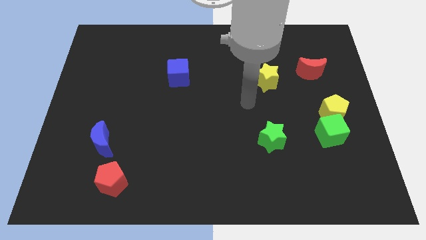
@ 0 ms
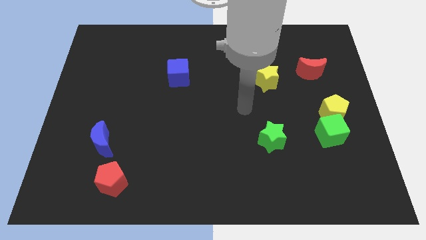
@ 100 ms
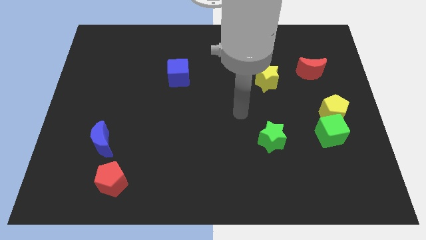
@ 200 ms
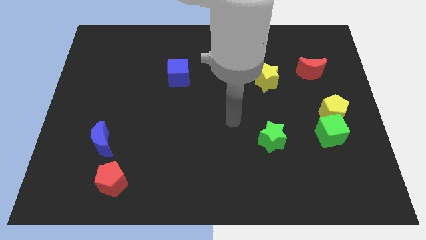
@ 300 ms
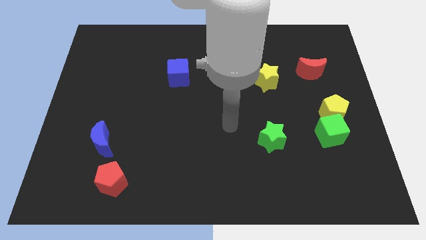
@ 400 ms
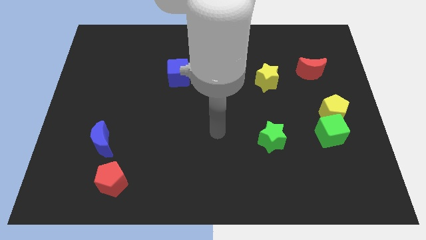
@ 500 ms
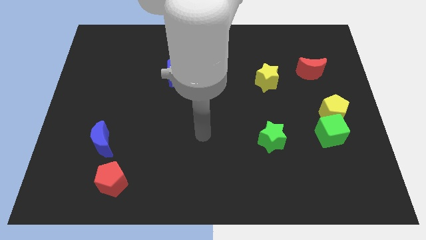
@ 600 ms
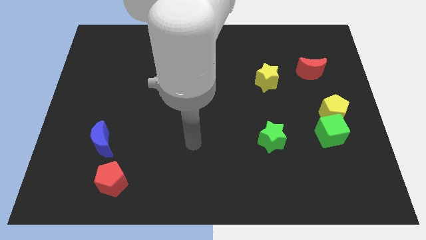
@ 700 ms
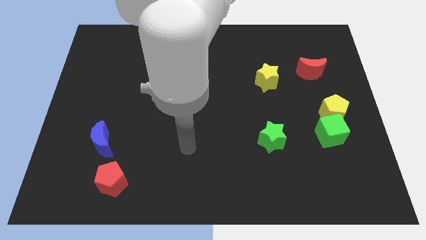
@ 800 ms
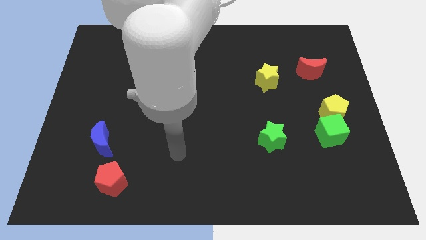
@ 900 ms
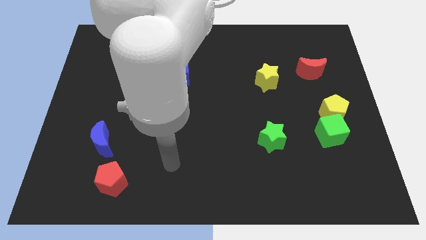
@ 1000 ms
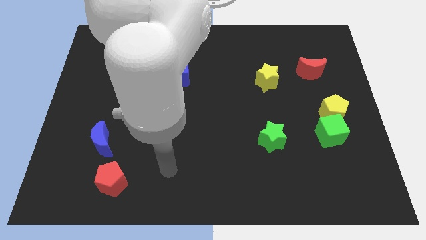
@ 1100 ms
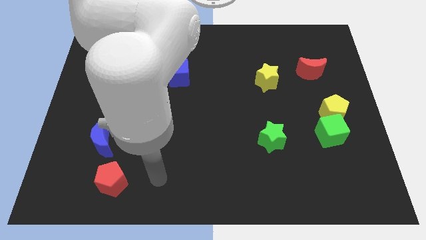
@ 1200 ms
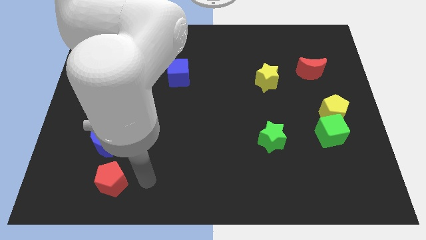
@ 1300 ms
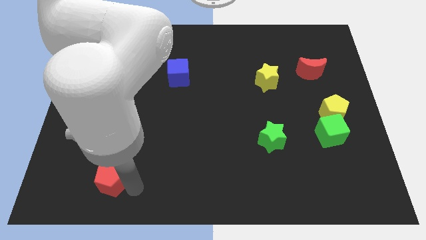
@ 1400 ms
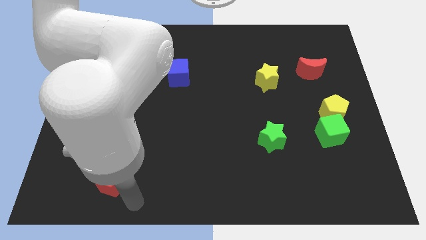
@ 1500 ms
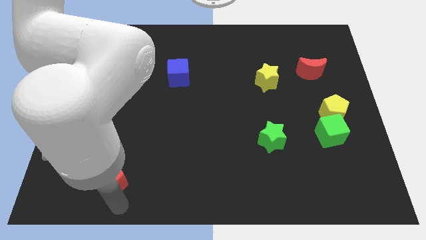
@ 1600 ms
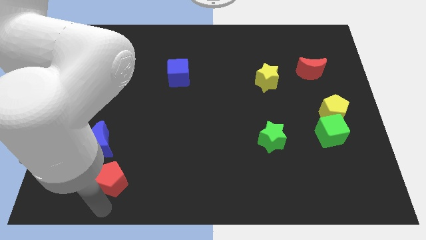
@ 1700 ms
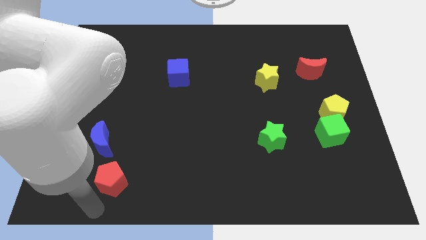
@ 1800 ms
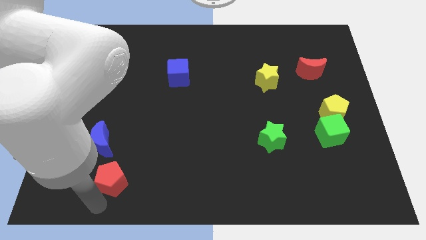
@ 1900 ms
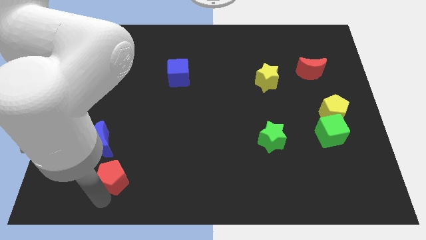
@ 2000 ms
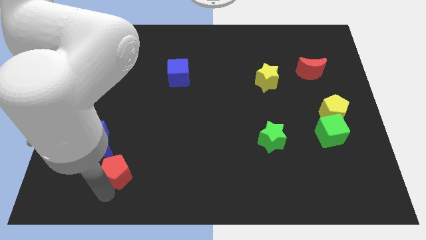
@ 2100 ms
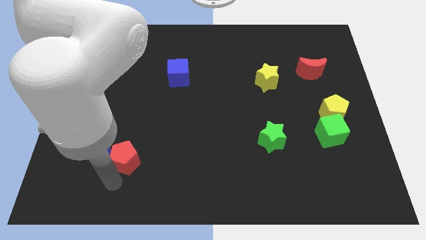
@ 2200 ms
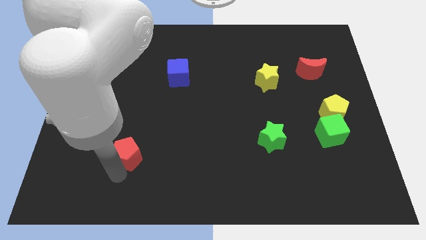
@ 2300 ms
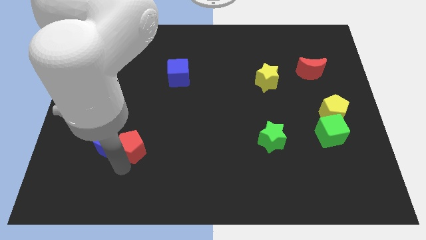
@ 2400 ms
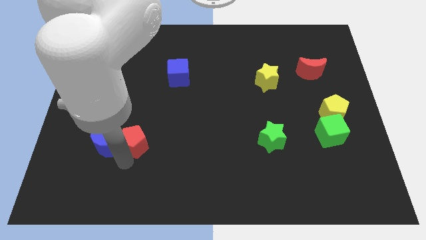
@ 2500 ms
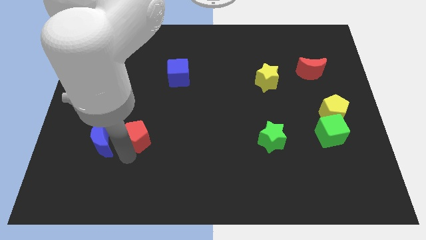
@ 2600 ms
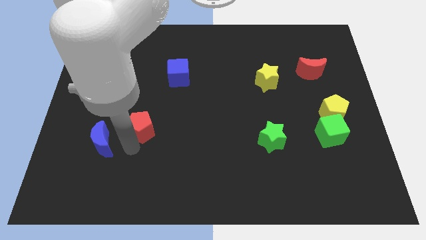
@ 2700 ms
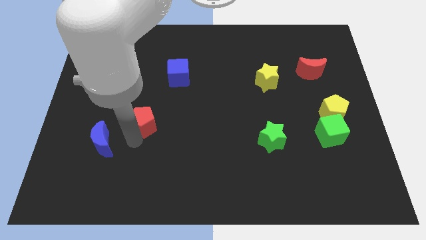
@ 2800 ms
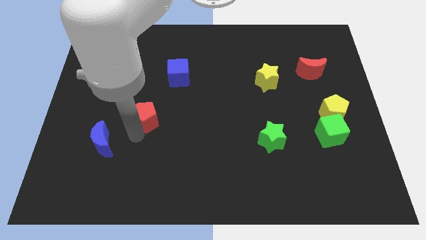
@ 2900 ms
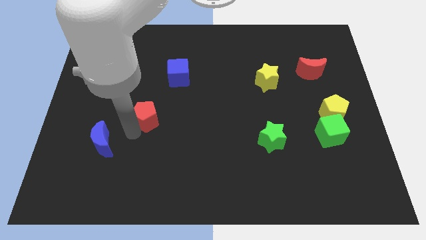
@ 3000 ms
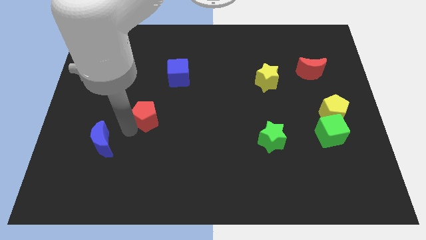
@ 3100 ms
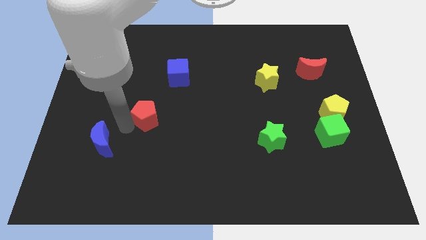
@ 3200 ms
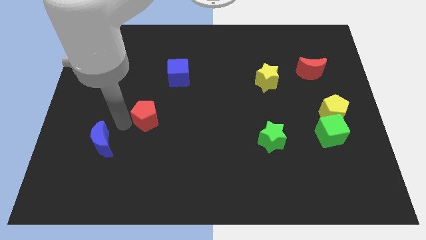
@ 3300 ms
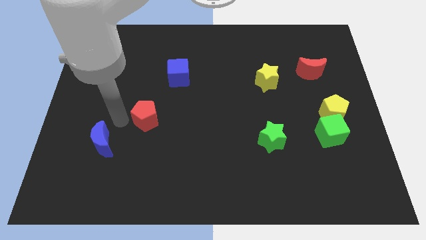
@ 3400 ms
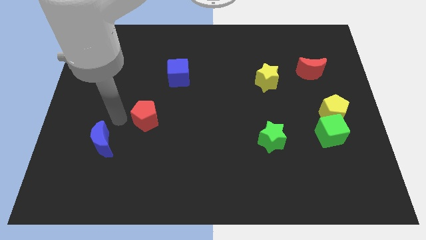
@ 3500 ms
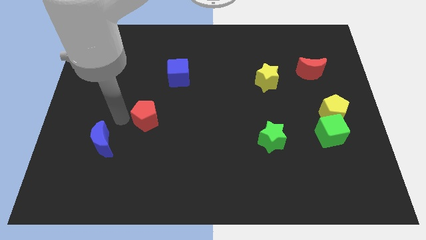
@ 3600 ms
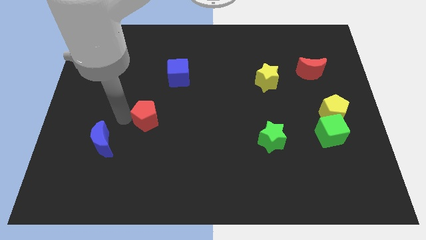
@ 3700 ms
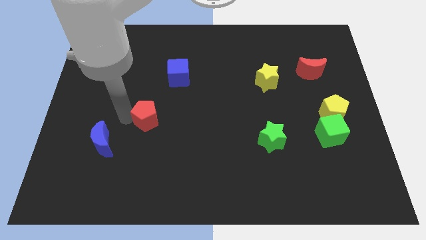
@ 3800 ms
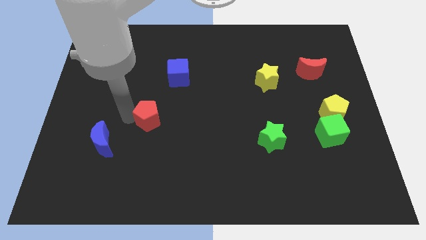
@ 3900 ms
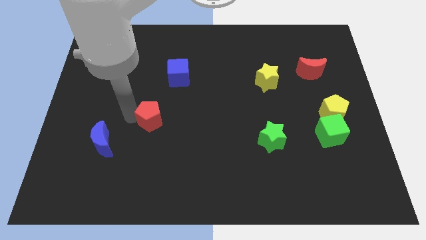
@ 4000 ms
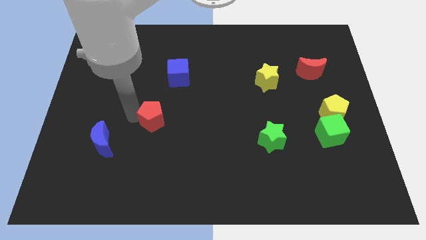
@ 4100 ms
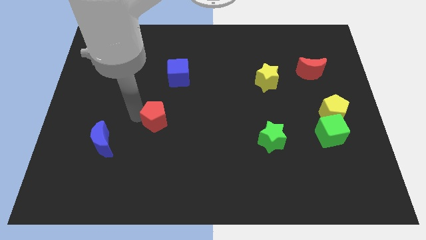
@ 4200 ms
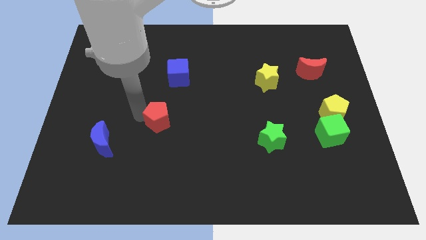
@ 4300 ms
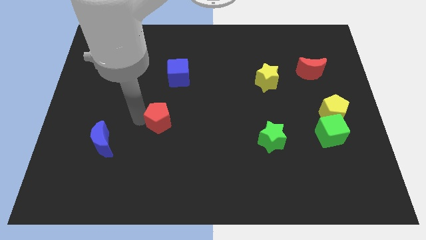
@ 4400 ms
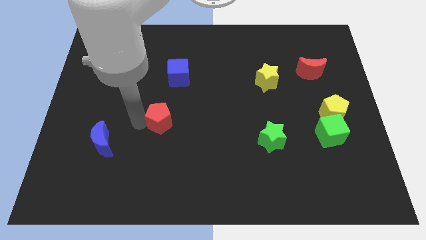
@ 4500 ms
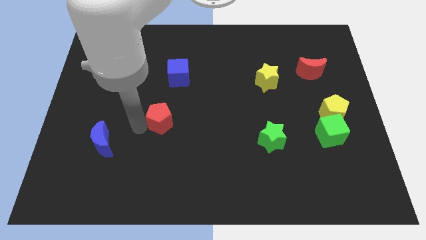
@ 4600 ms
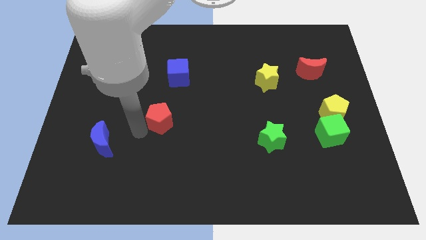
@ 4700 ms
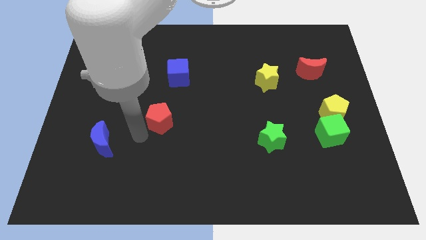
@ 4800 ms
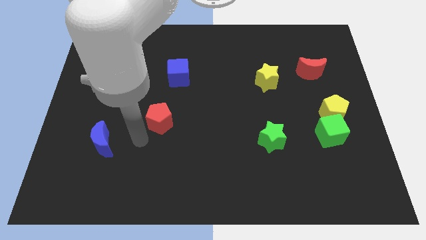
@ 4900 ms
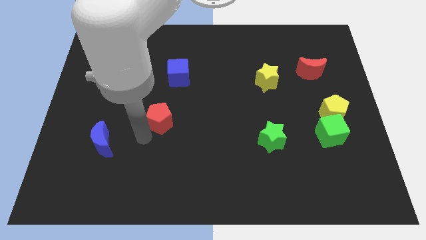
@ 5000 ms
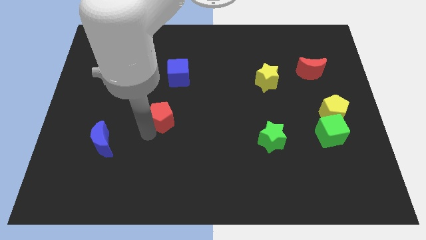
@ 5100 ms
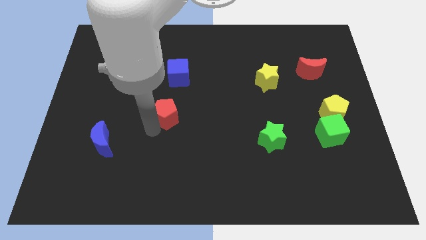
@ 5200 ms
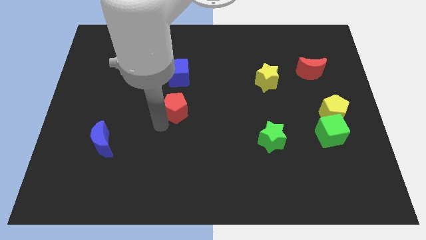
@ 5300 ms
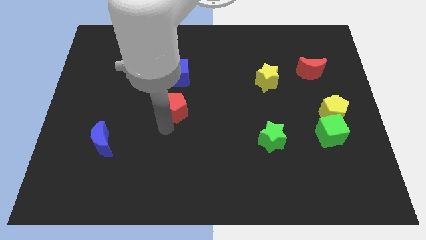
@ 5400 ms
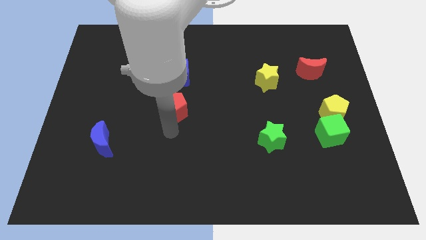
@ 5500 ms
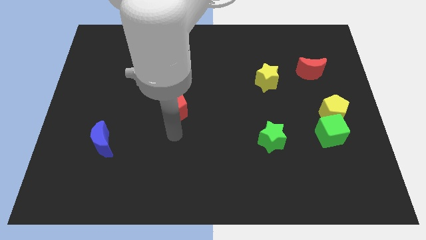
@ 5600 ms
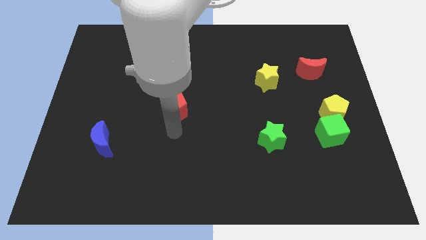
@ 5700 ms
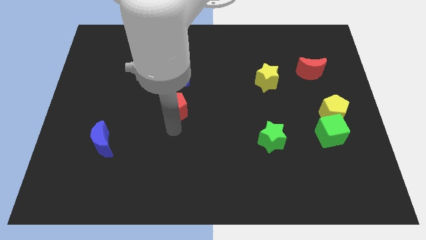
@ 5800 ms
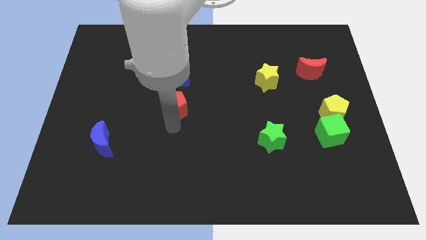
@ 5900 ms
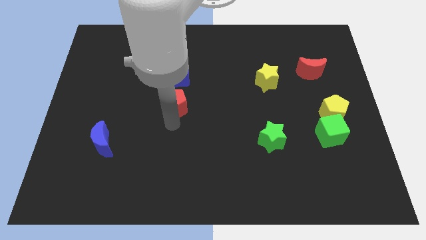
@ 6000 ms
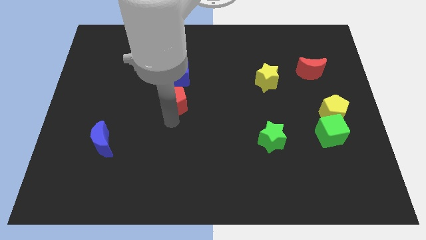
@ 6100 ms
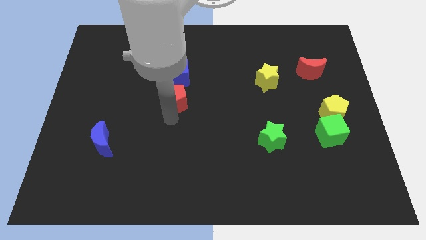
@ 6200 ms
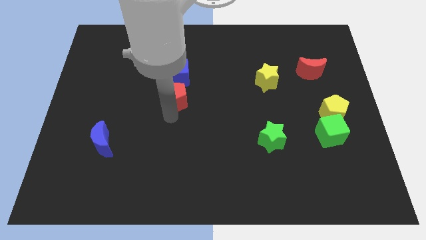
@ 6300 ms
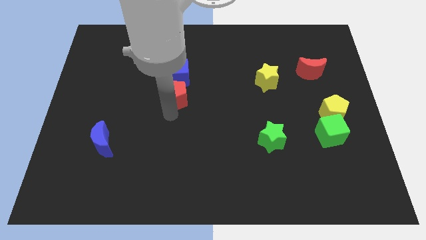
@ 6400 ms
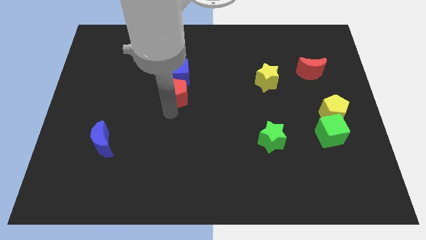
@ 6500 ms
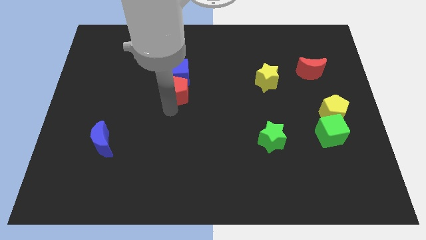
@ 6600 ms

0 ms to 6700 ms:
put the red pentagon close to the blue cube

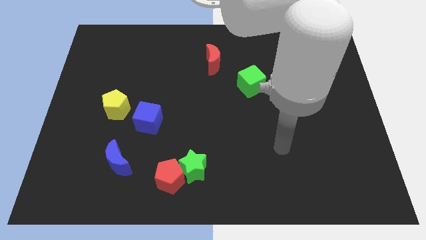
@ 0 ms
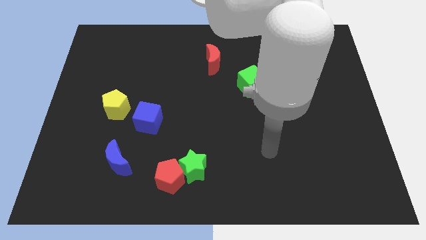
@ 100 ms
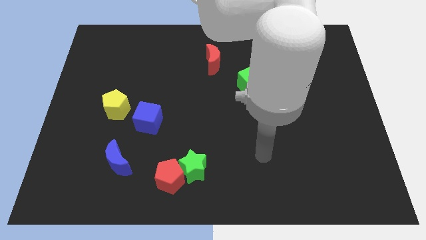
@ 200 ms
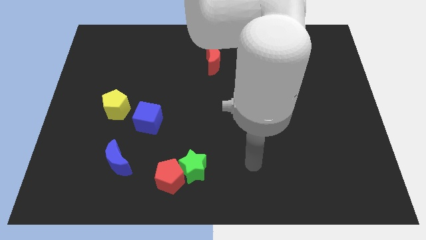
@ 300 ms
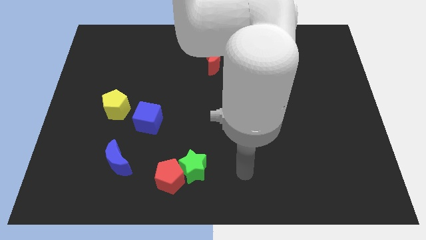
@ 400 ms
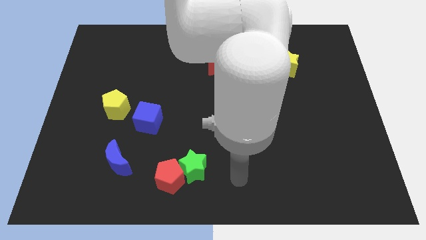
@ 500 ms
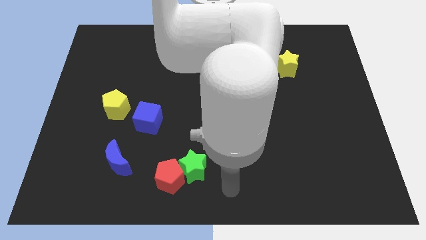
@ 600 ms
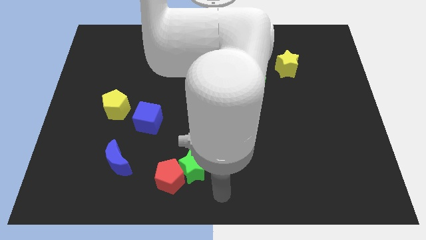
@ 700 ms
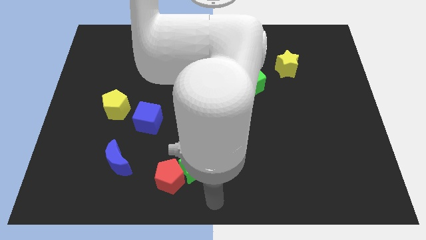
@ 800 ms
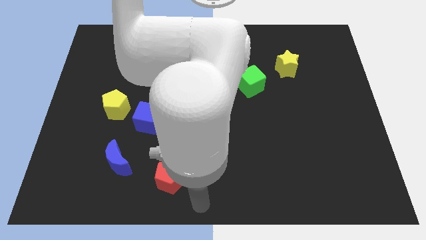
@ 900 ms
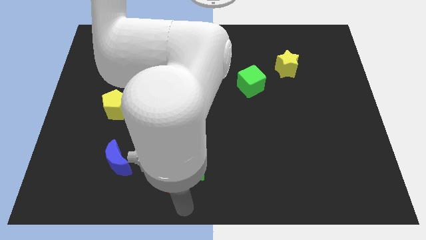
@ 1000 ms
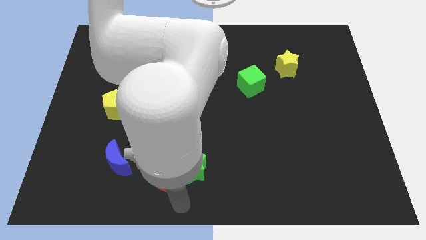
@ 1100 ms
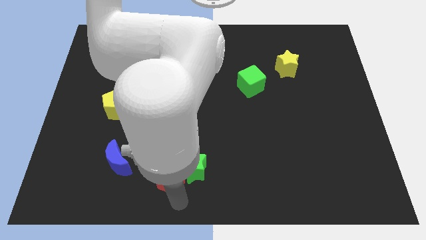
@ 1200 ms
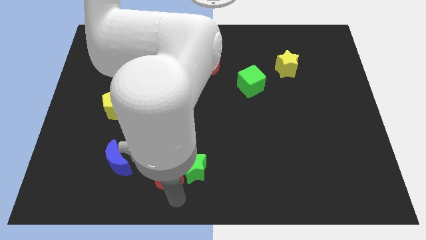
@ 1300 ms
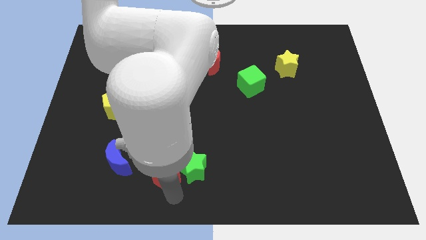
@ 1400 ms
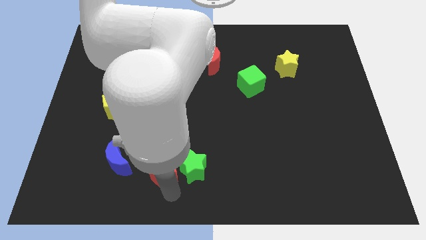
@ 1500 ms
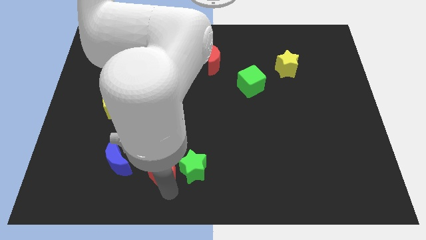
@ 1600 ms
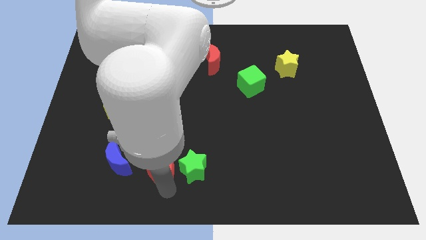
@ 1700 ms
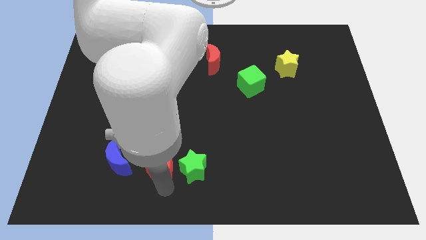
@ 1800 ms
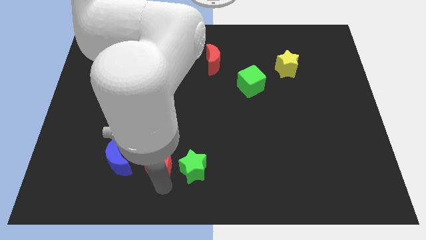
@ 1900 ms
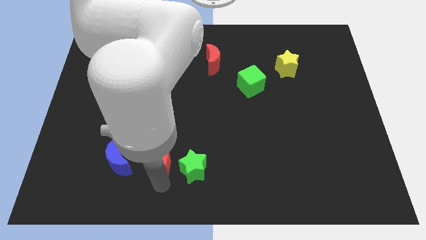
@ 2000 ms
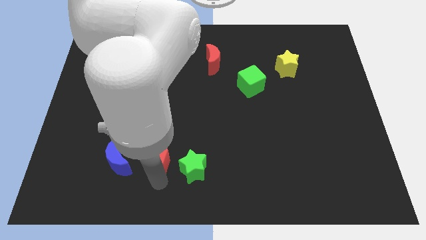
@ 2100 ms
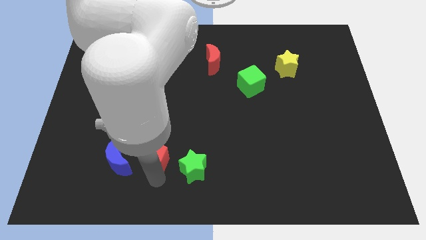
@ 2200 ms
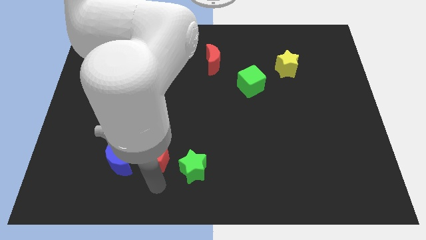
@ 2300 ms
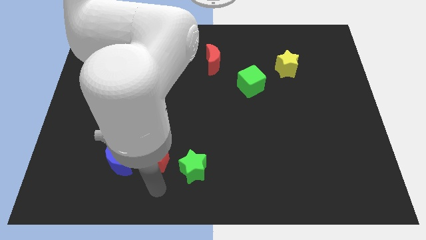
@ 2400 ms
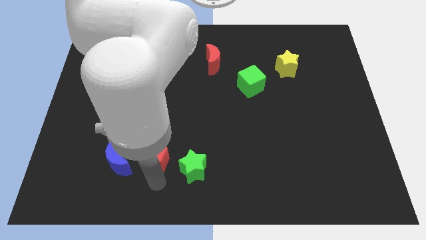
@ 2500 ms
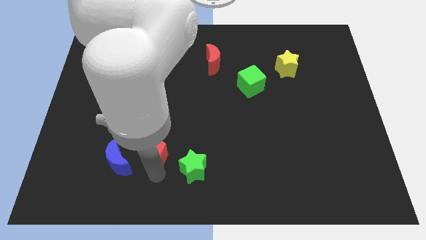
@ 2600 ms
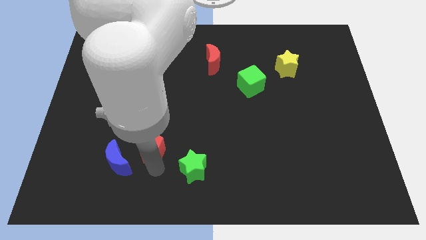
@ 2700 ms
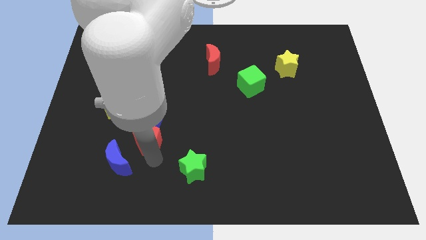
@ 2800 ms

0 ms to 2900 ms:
slide the red pentagon towards the blue cube
